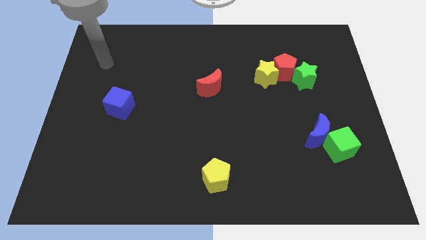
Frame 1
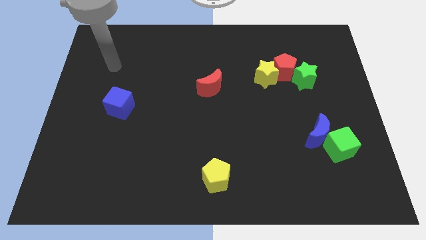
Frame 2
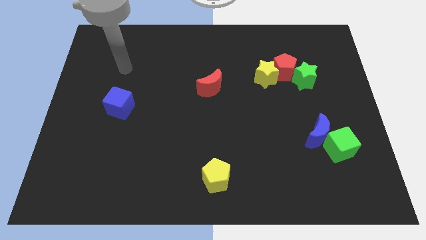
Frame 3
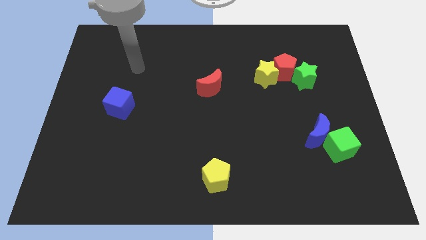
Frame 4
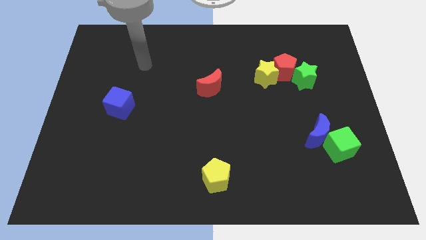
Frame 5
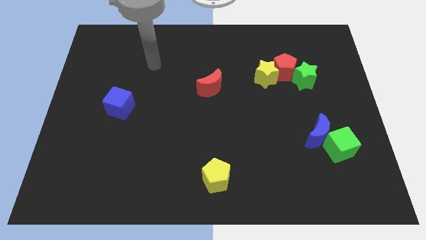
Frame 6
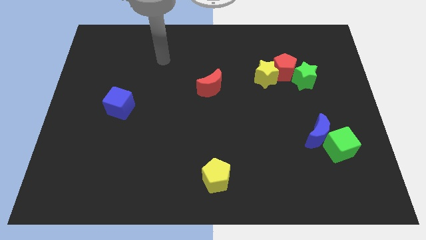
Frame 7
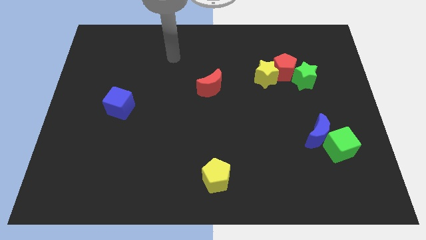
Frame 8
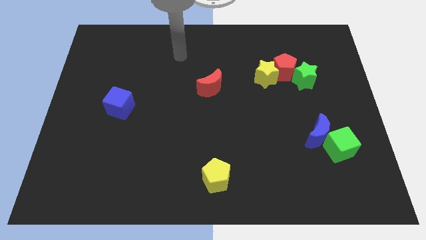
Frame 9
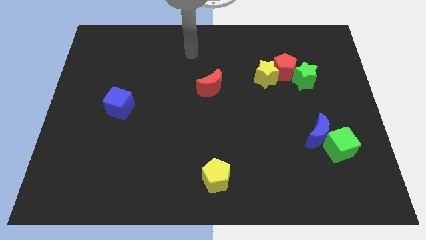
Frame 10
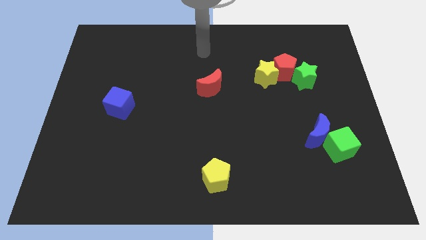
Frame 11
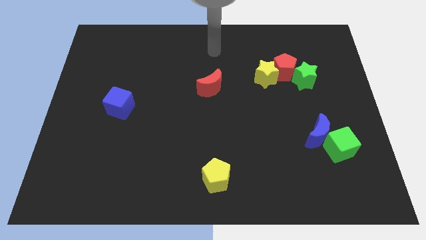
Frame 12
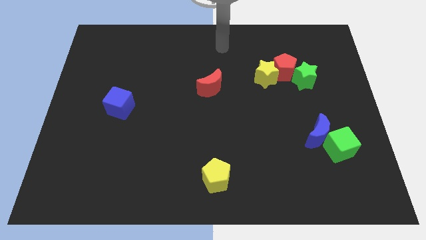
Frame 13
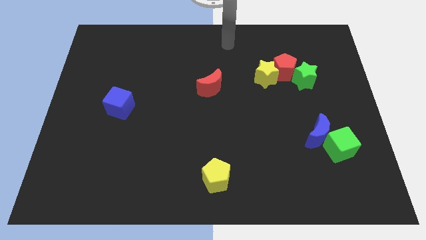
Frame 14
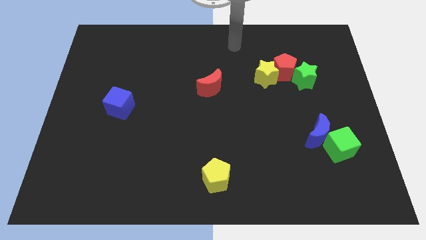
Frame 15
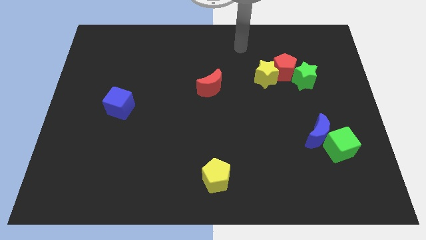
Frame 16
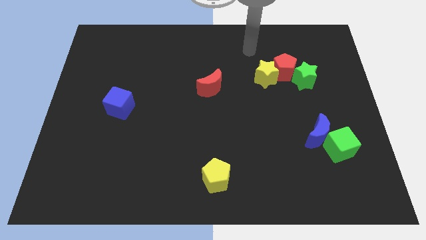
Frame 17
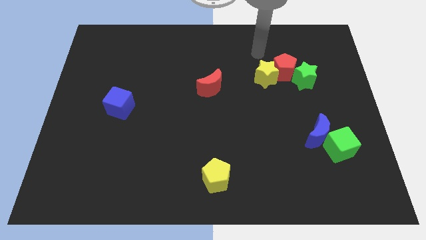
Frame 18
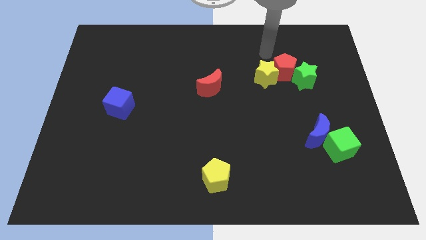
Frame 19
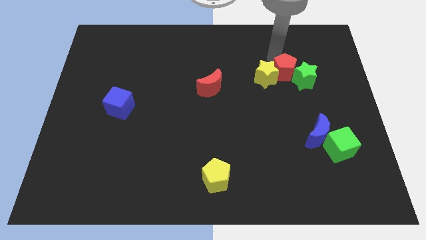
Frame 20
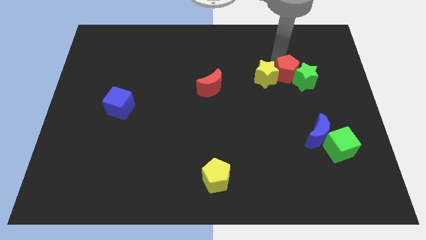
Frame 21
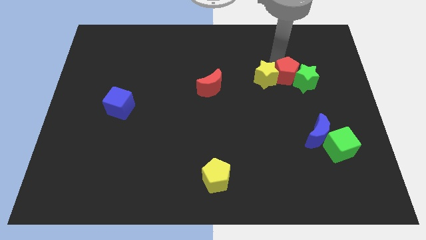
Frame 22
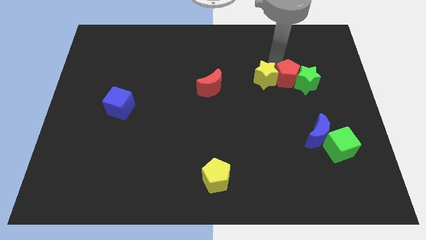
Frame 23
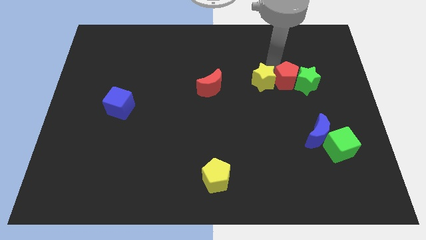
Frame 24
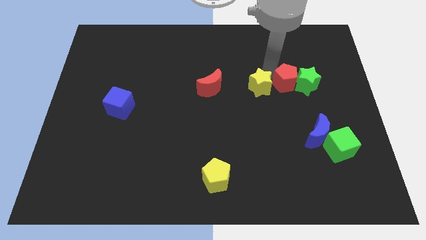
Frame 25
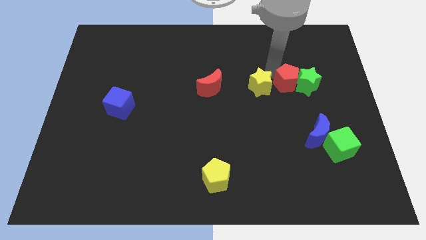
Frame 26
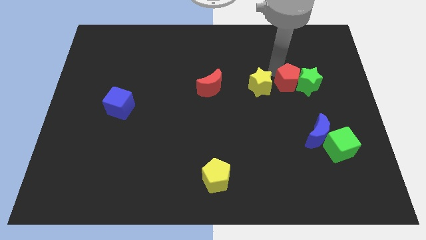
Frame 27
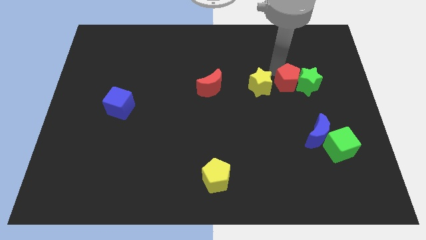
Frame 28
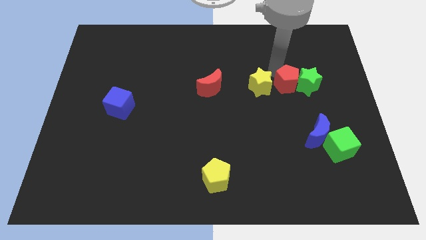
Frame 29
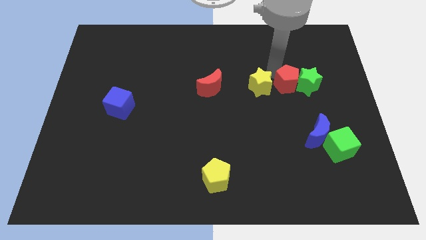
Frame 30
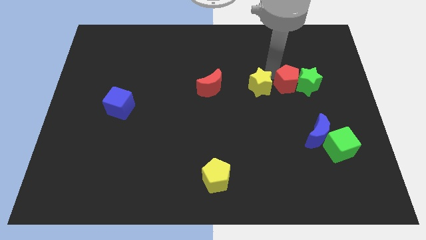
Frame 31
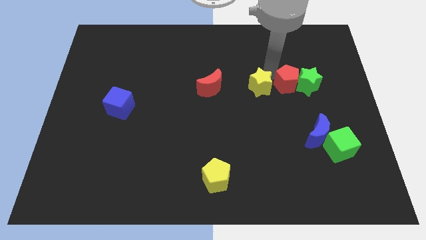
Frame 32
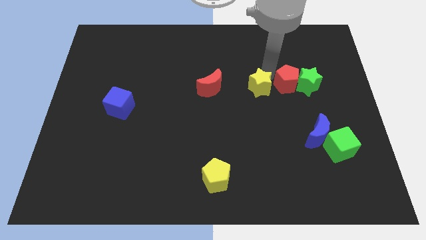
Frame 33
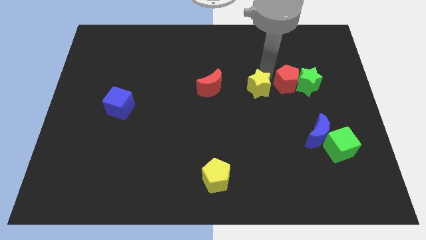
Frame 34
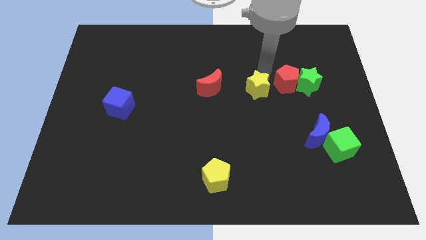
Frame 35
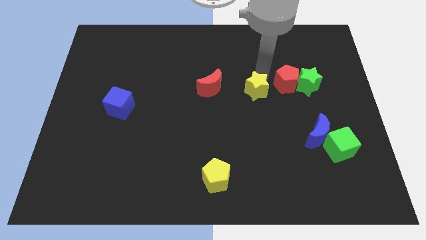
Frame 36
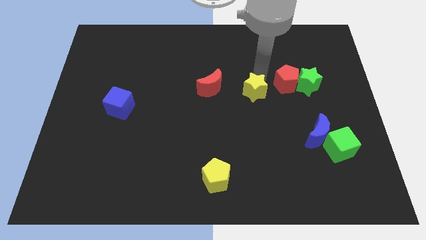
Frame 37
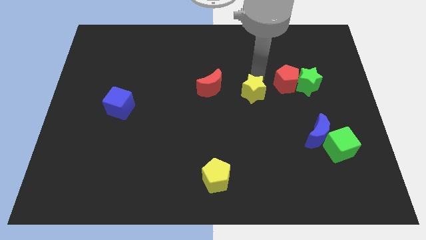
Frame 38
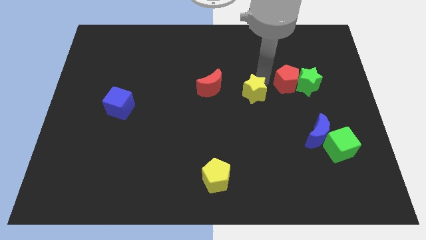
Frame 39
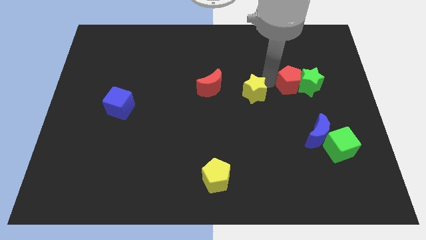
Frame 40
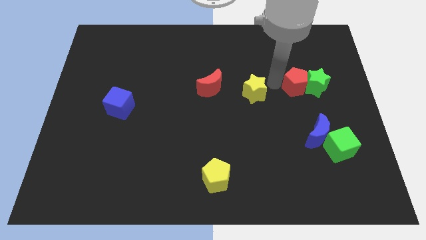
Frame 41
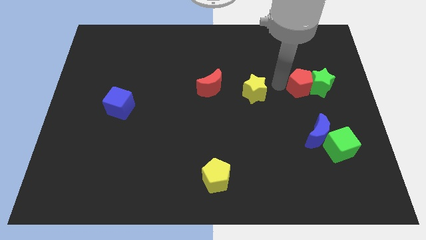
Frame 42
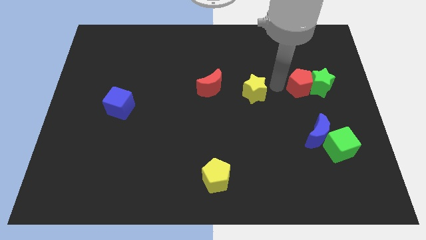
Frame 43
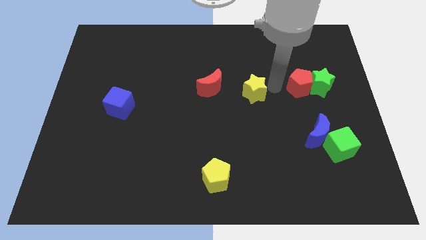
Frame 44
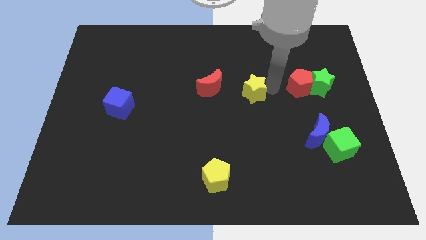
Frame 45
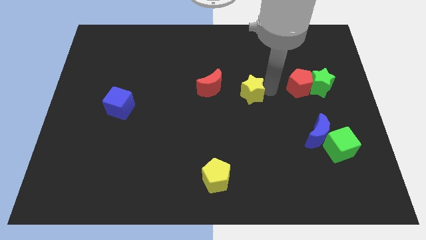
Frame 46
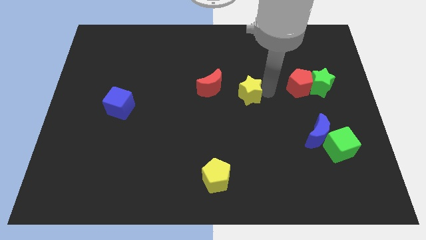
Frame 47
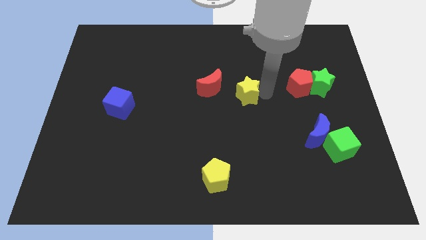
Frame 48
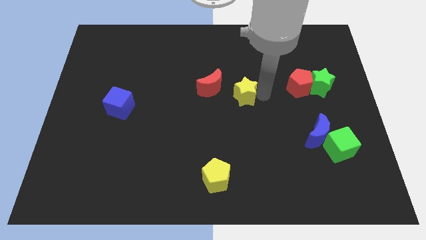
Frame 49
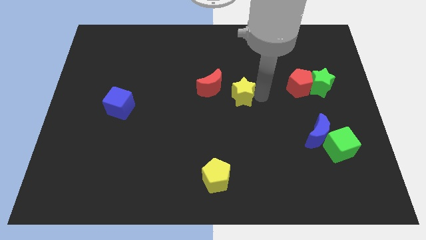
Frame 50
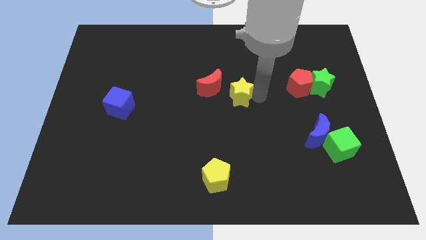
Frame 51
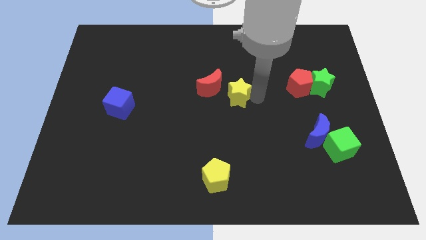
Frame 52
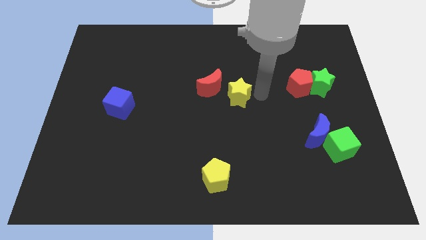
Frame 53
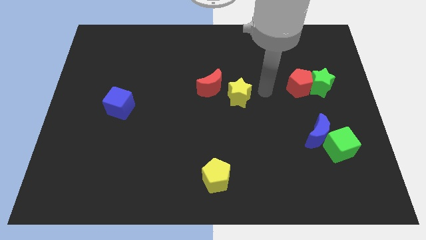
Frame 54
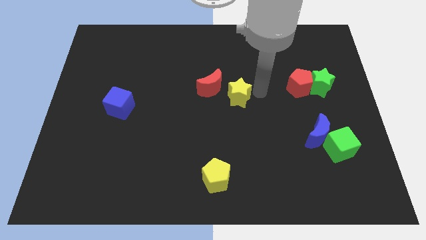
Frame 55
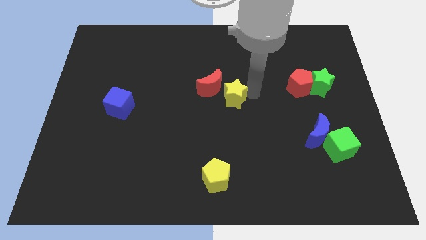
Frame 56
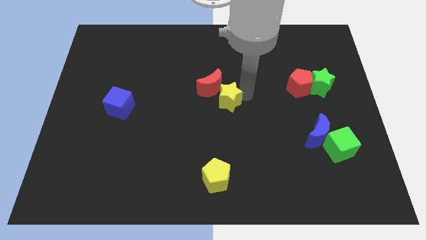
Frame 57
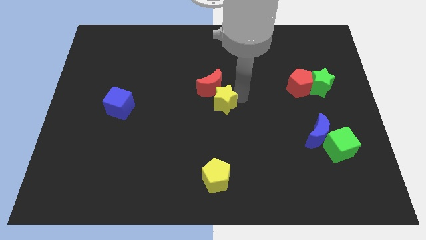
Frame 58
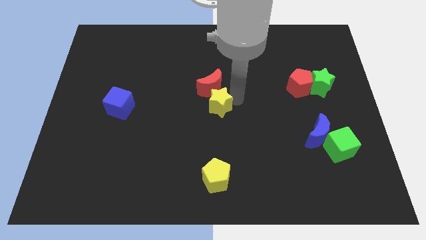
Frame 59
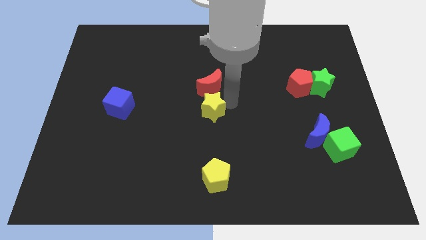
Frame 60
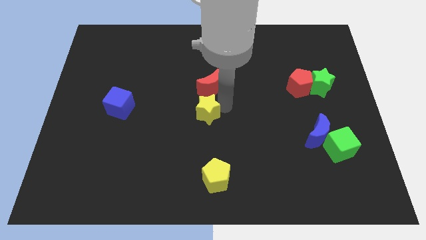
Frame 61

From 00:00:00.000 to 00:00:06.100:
move the yellow star to the bottom left of the red moon

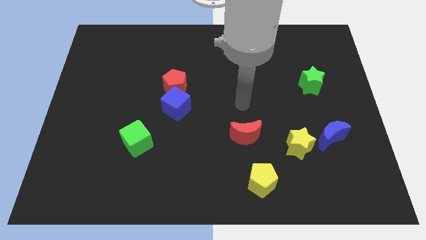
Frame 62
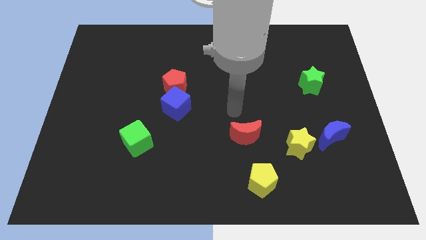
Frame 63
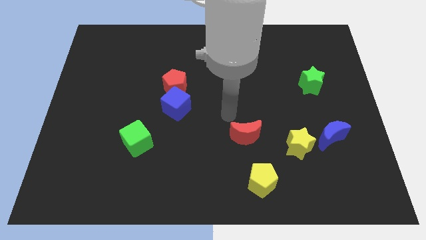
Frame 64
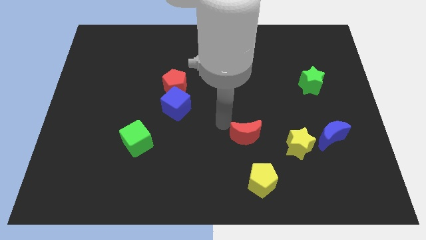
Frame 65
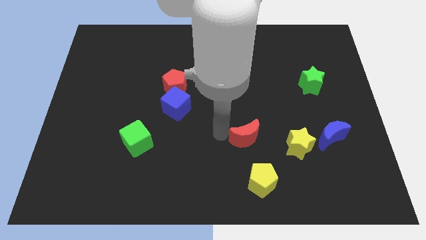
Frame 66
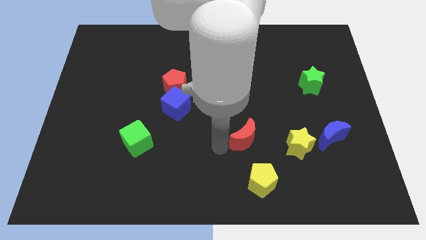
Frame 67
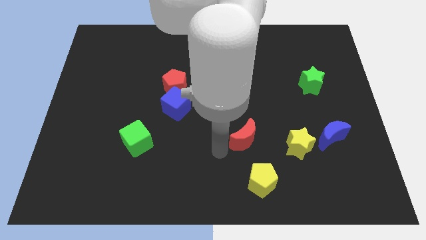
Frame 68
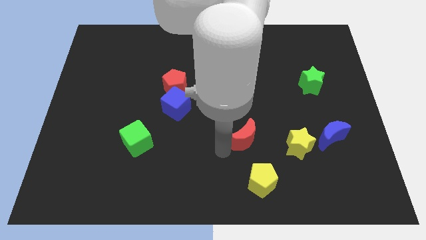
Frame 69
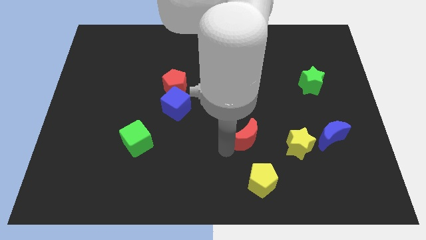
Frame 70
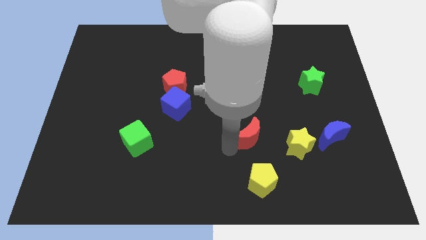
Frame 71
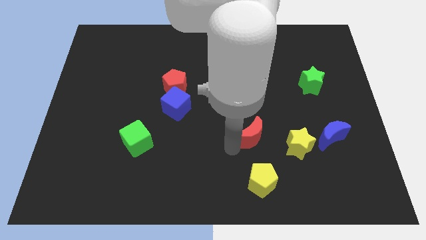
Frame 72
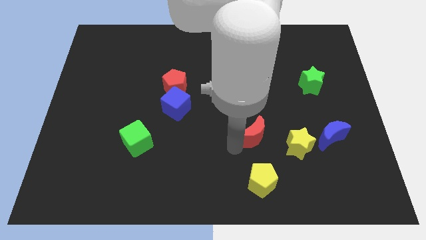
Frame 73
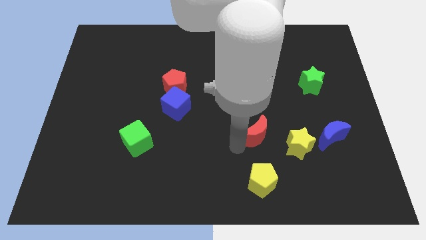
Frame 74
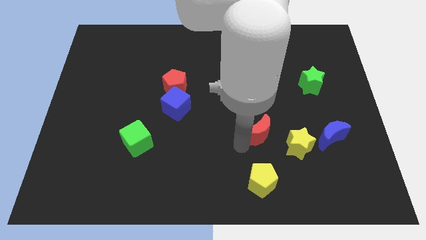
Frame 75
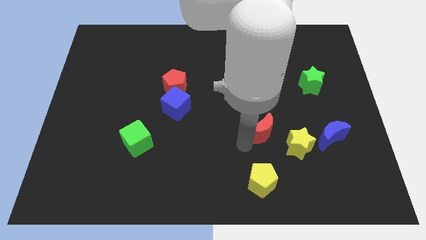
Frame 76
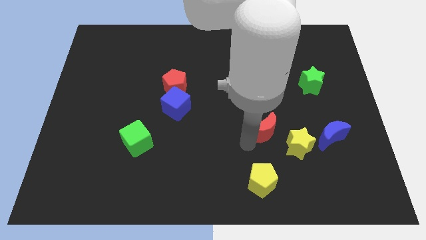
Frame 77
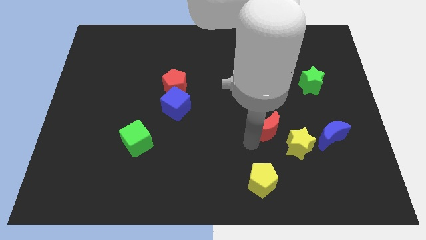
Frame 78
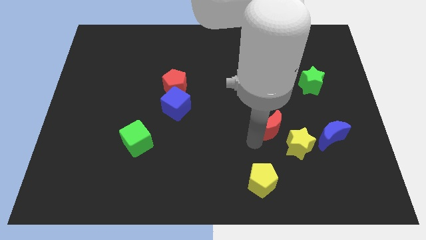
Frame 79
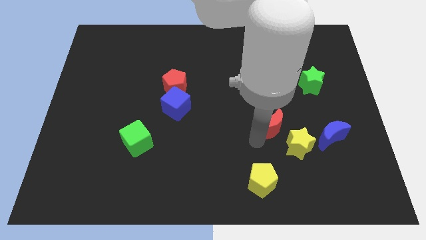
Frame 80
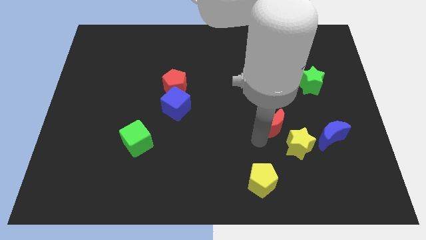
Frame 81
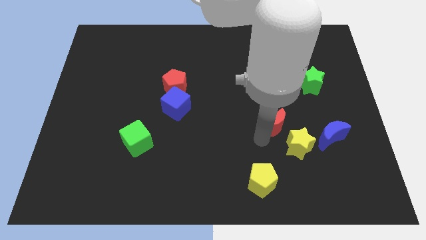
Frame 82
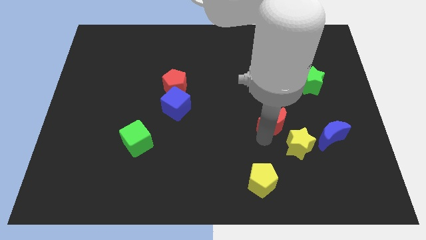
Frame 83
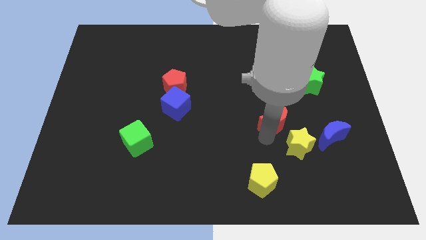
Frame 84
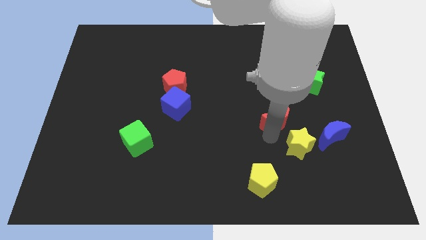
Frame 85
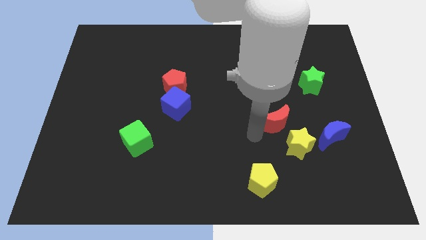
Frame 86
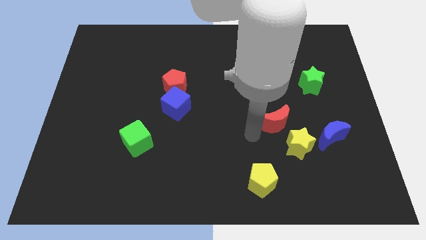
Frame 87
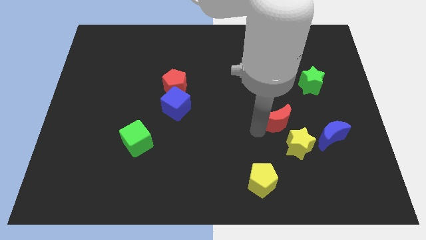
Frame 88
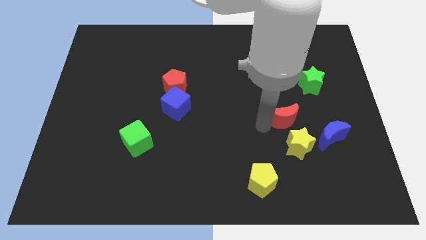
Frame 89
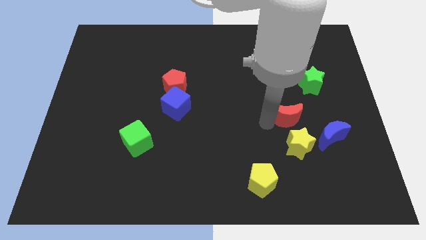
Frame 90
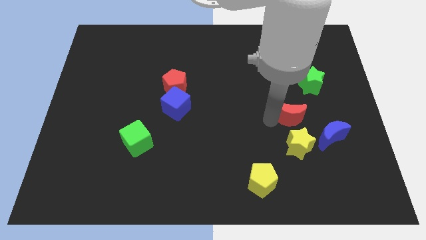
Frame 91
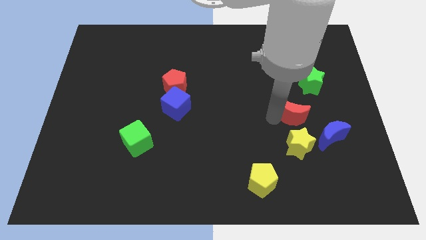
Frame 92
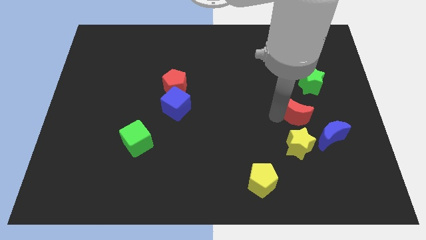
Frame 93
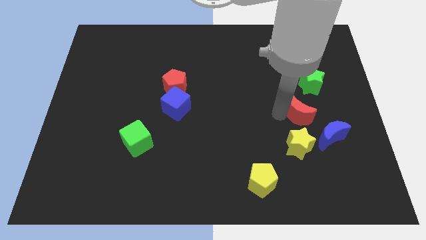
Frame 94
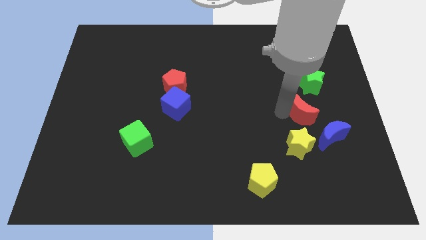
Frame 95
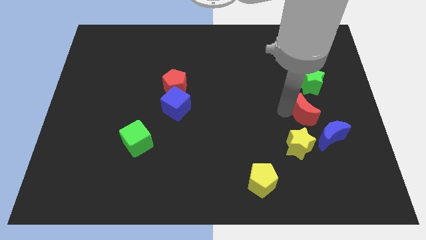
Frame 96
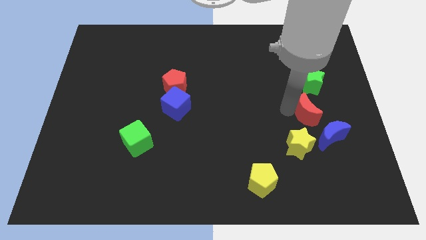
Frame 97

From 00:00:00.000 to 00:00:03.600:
put the red moon to the top of the blue moon
